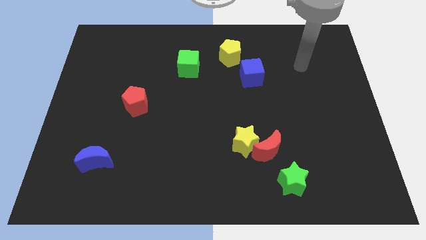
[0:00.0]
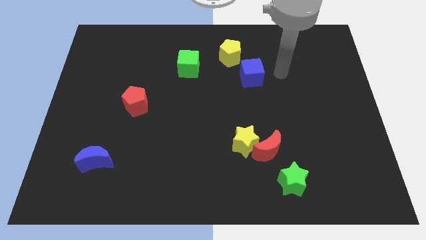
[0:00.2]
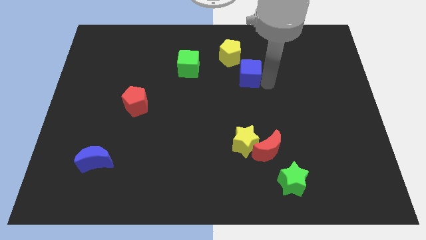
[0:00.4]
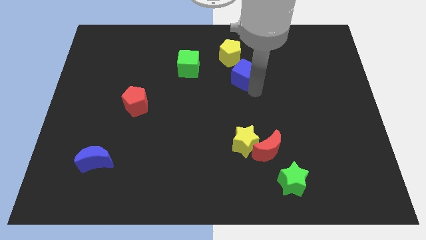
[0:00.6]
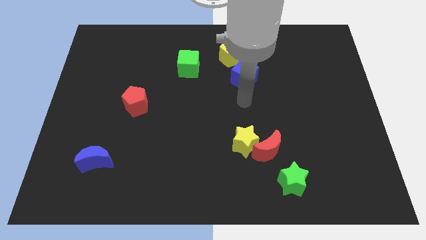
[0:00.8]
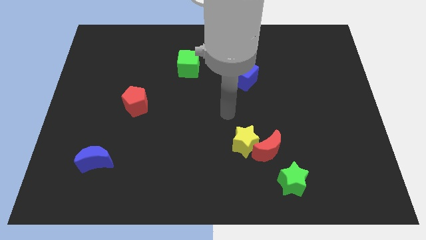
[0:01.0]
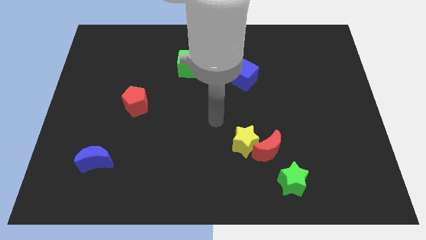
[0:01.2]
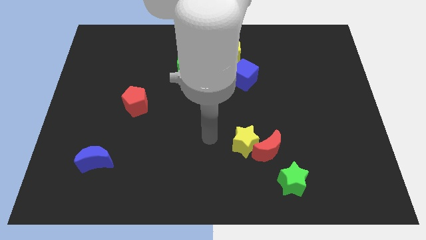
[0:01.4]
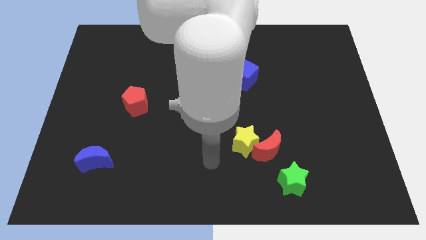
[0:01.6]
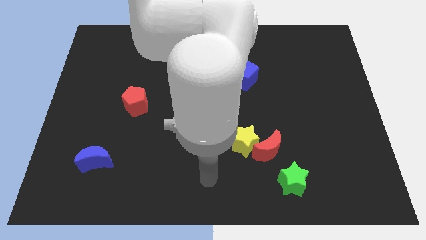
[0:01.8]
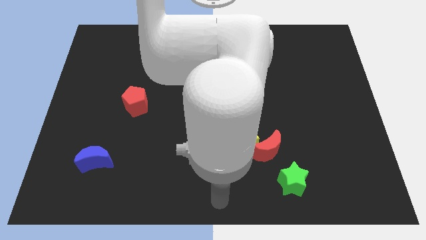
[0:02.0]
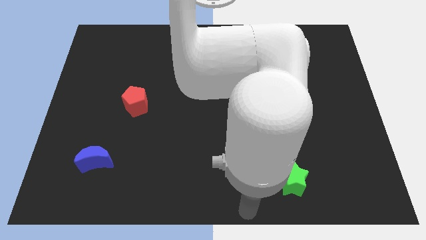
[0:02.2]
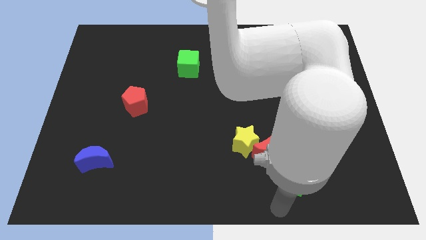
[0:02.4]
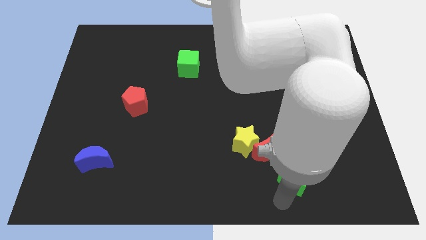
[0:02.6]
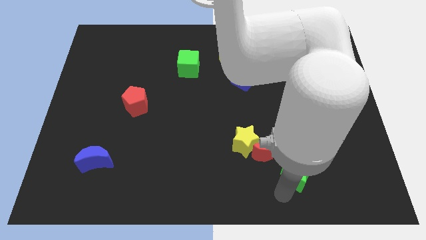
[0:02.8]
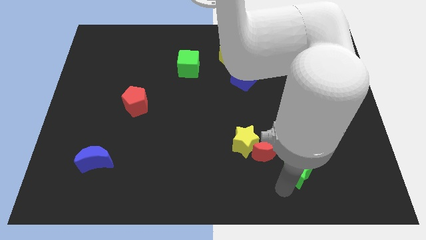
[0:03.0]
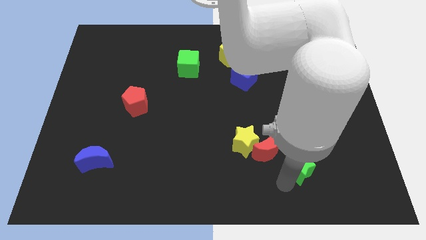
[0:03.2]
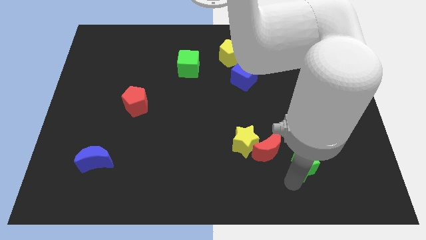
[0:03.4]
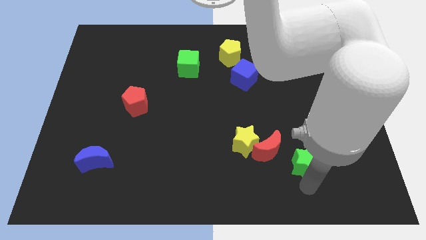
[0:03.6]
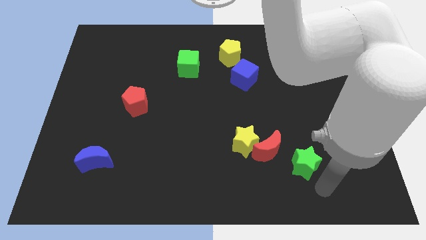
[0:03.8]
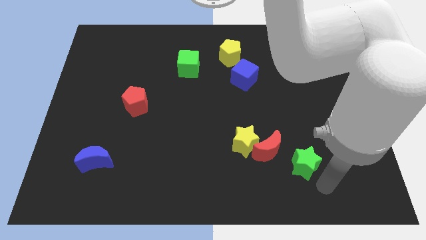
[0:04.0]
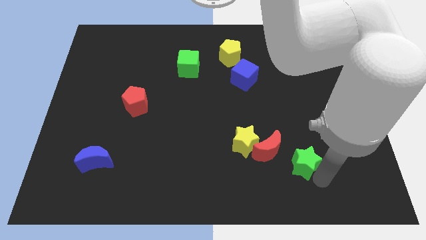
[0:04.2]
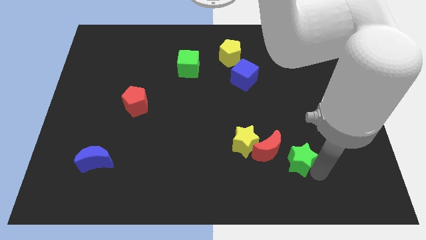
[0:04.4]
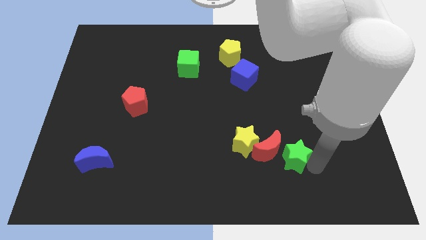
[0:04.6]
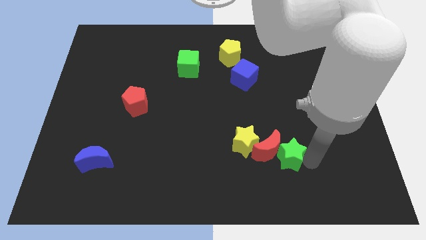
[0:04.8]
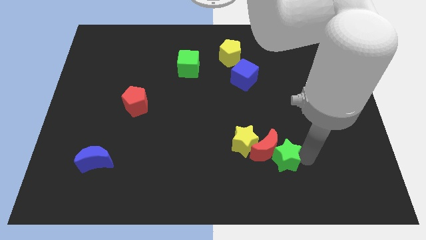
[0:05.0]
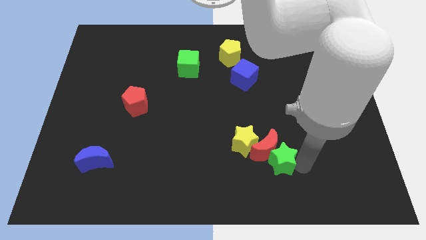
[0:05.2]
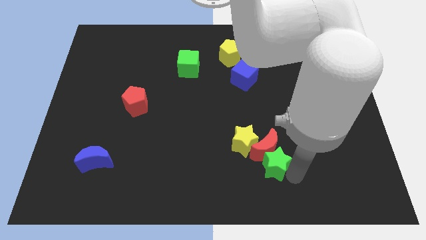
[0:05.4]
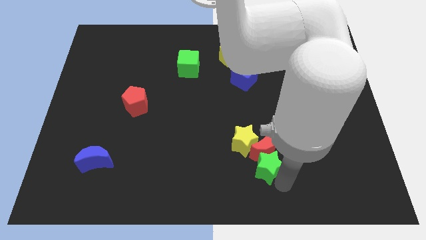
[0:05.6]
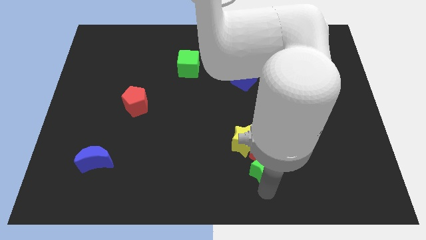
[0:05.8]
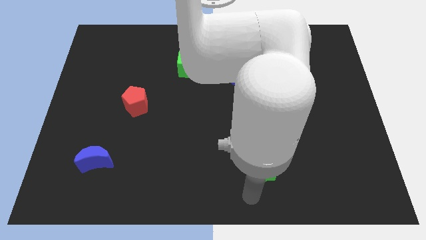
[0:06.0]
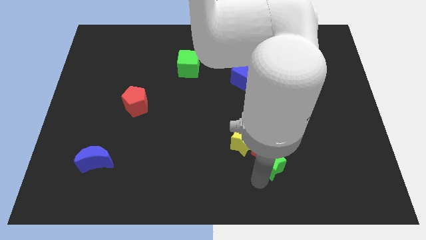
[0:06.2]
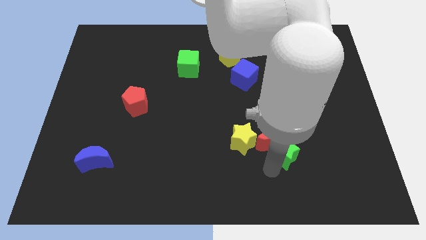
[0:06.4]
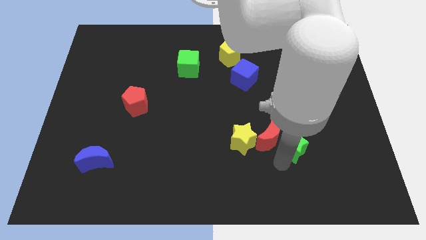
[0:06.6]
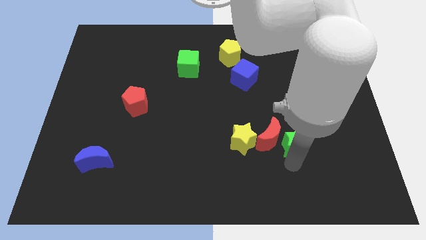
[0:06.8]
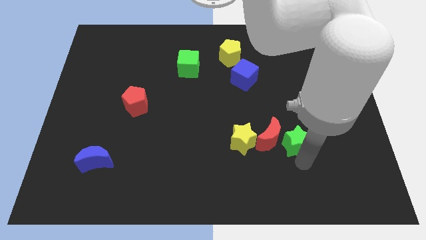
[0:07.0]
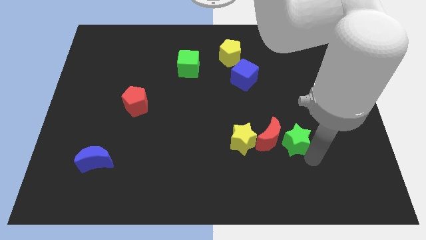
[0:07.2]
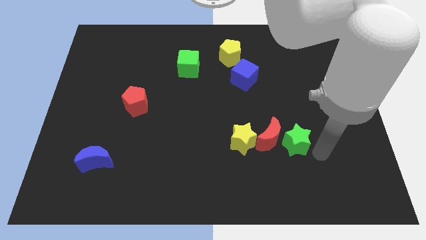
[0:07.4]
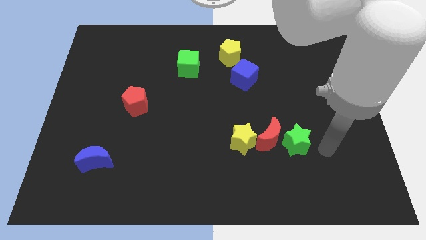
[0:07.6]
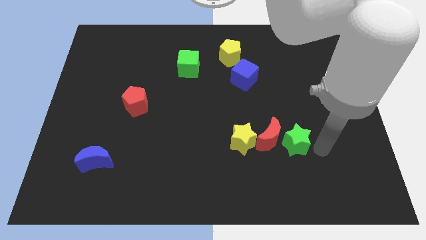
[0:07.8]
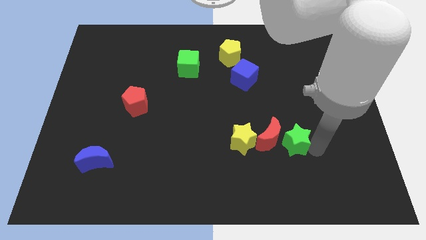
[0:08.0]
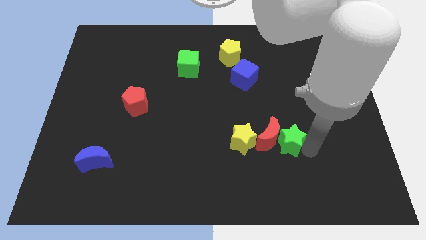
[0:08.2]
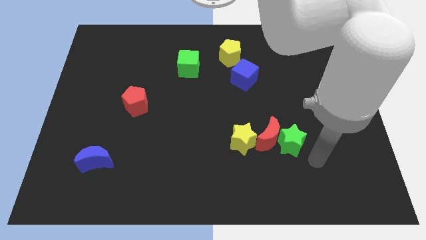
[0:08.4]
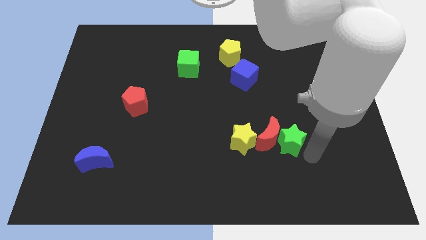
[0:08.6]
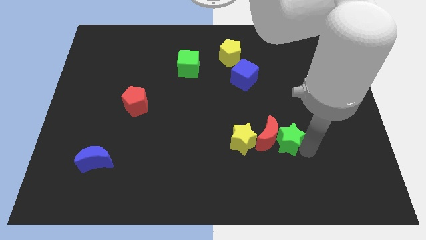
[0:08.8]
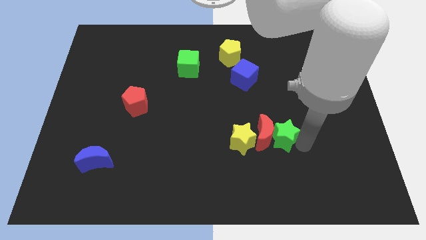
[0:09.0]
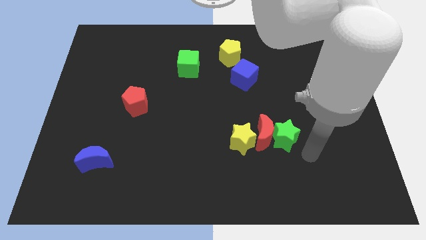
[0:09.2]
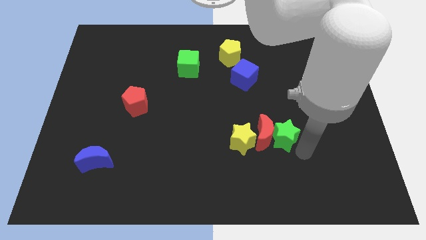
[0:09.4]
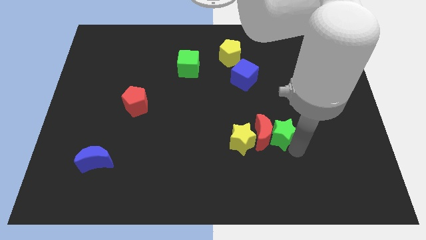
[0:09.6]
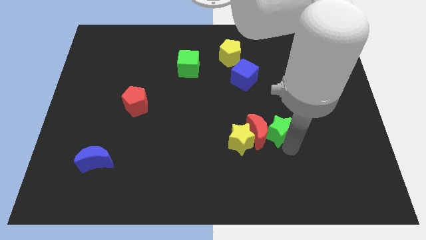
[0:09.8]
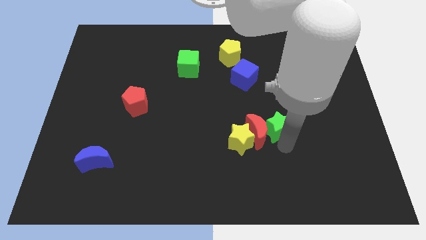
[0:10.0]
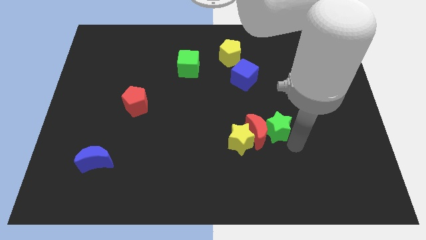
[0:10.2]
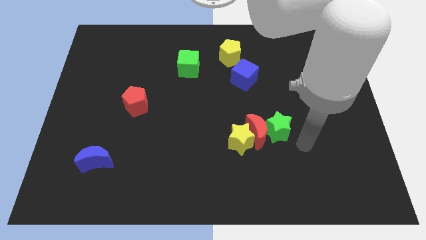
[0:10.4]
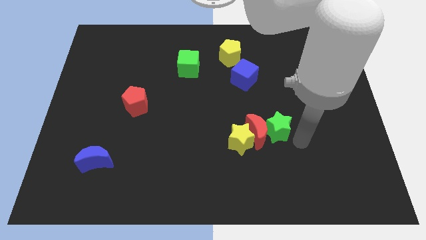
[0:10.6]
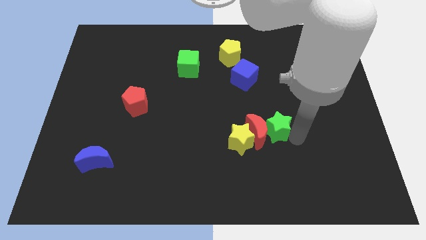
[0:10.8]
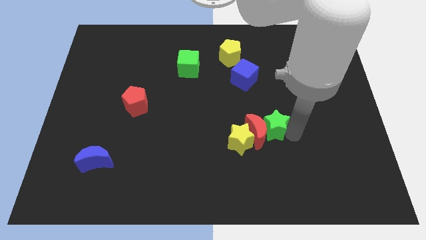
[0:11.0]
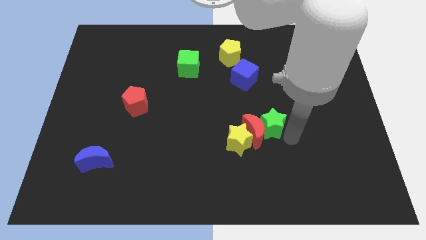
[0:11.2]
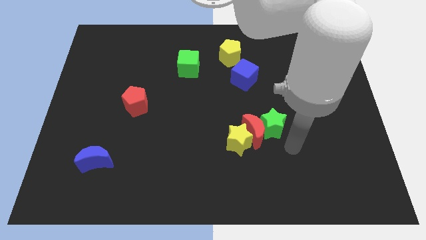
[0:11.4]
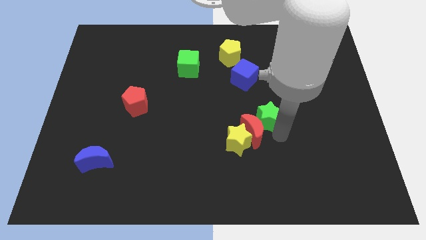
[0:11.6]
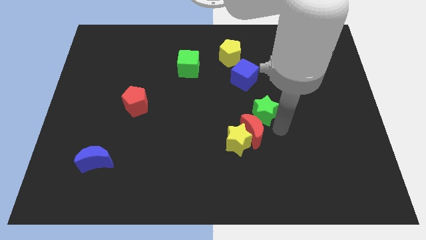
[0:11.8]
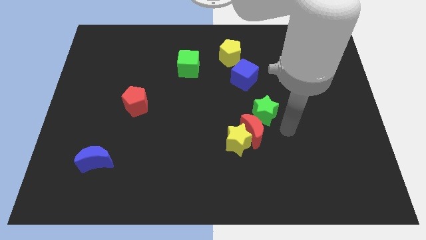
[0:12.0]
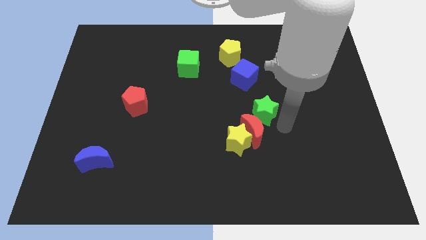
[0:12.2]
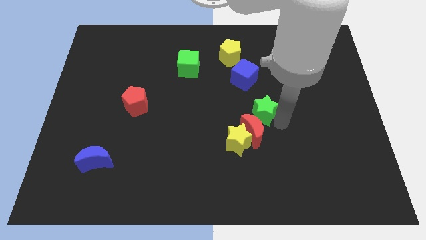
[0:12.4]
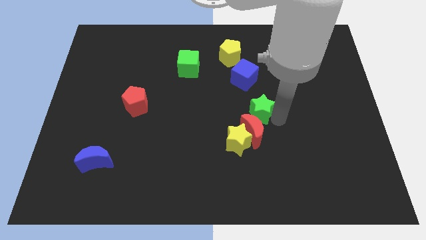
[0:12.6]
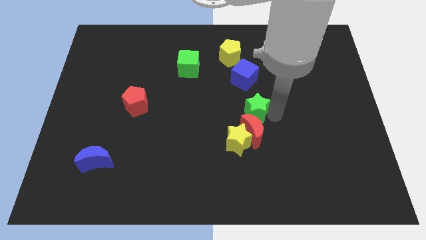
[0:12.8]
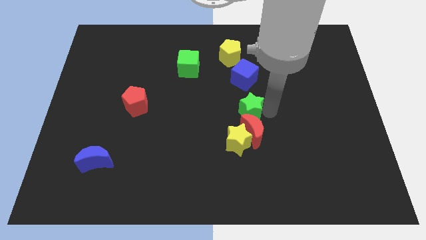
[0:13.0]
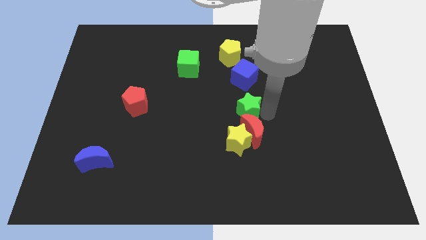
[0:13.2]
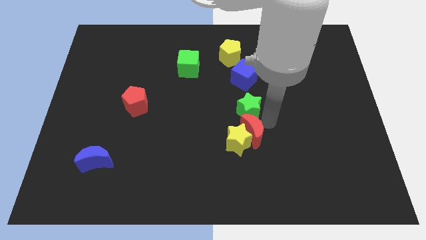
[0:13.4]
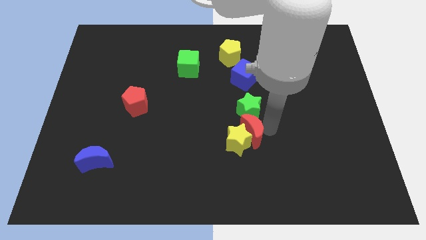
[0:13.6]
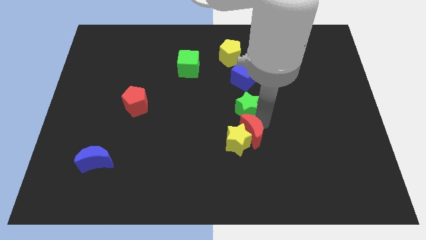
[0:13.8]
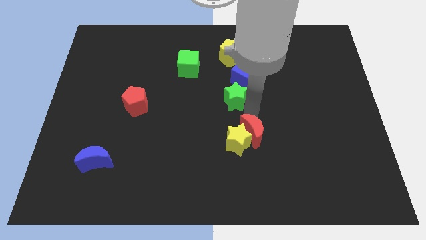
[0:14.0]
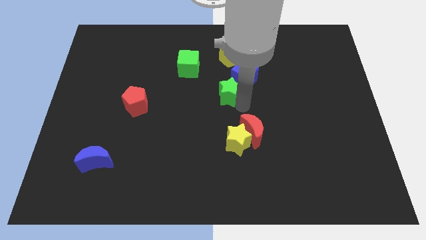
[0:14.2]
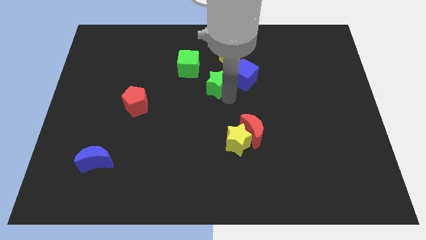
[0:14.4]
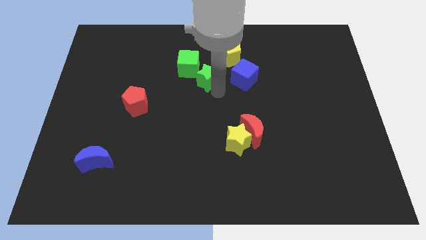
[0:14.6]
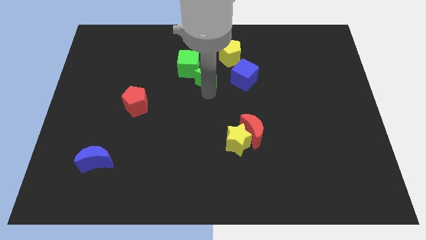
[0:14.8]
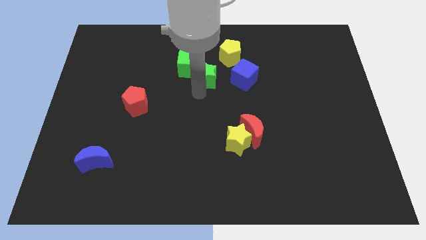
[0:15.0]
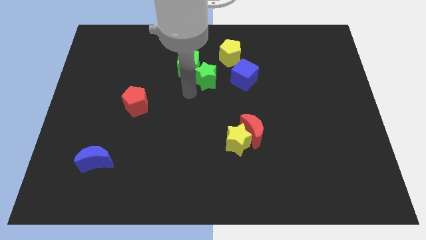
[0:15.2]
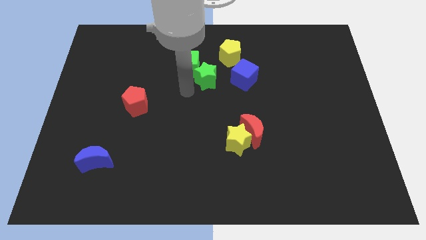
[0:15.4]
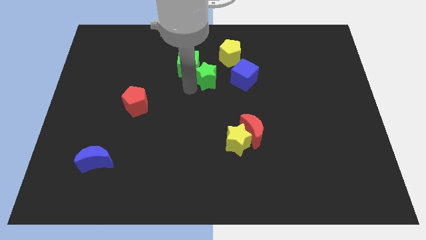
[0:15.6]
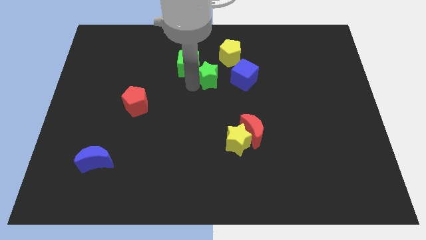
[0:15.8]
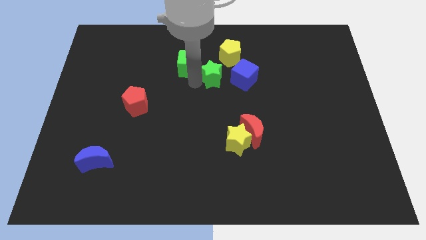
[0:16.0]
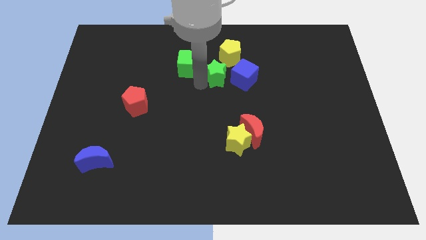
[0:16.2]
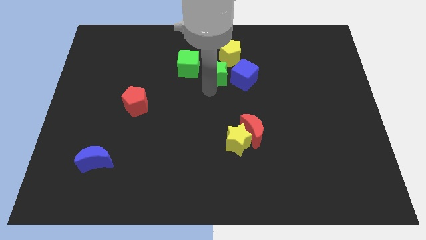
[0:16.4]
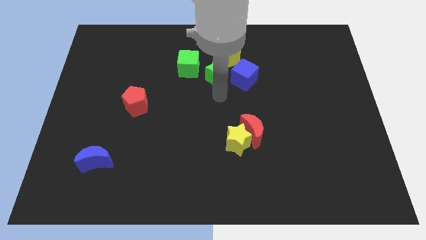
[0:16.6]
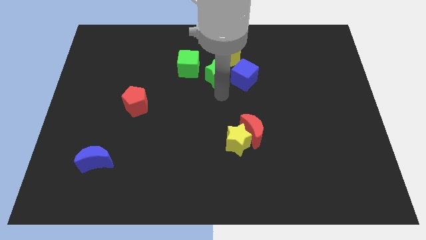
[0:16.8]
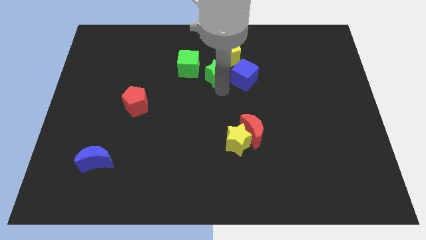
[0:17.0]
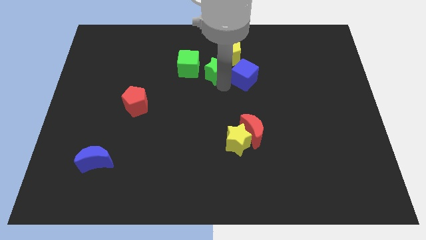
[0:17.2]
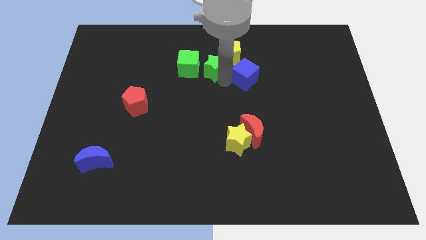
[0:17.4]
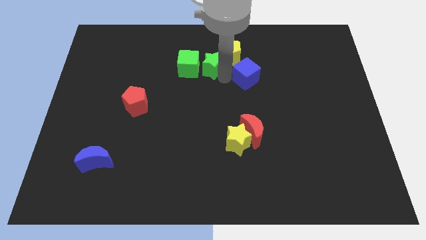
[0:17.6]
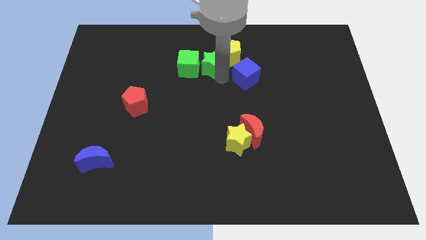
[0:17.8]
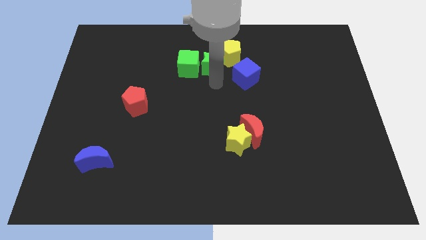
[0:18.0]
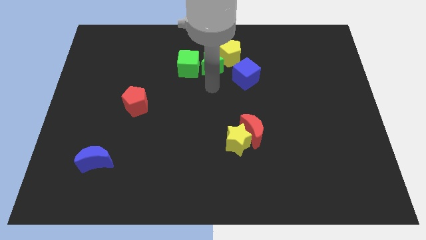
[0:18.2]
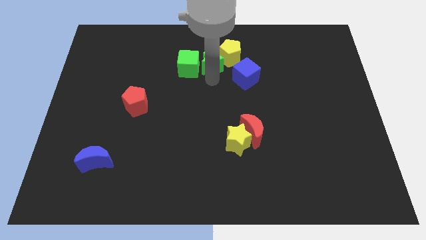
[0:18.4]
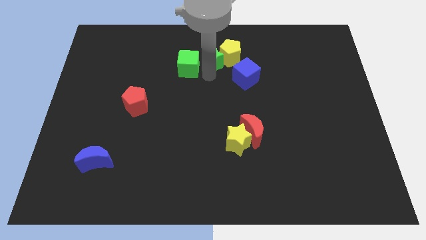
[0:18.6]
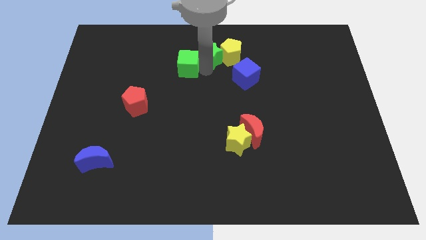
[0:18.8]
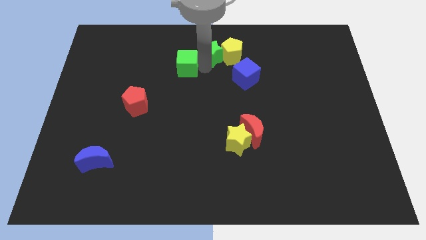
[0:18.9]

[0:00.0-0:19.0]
move the green star to the top
